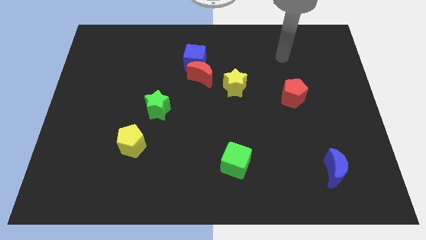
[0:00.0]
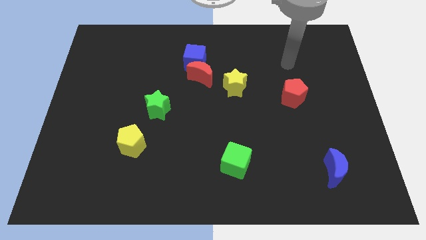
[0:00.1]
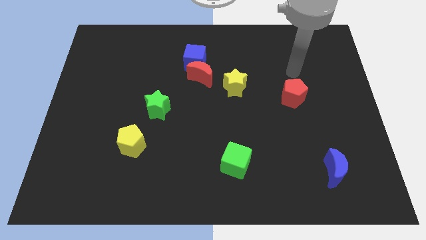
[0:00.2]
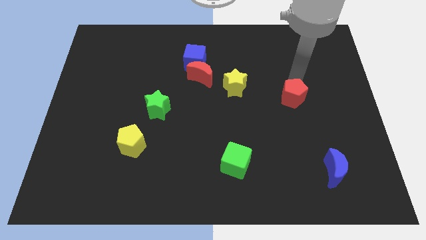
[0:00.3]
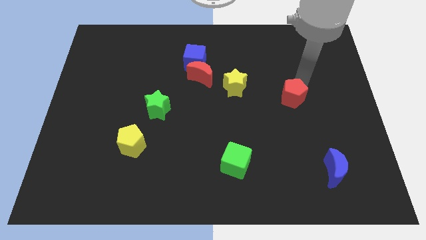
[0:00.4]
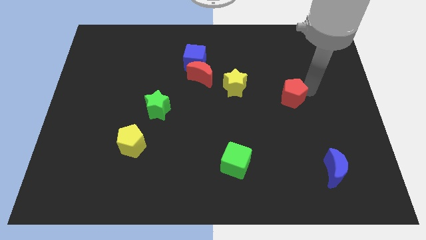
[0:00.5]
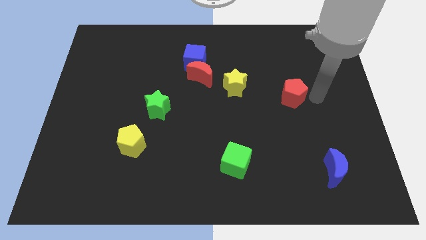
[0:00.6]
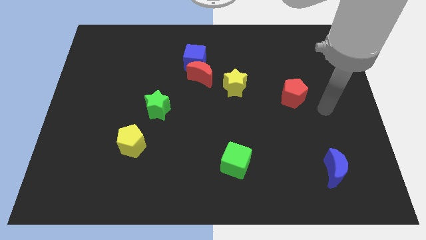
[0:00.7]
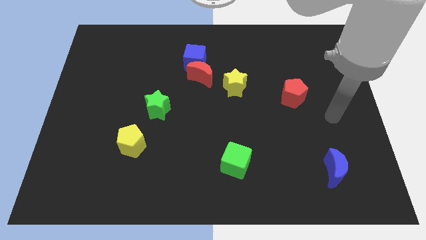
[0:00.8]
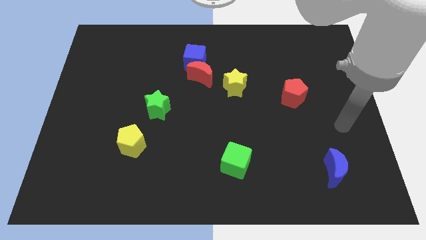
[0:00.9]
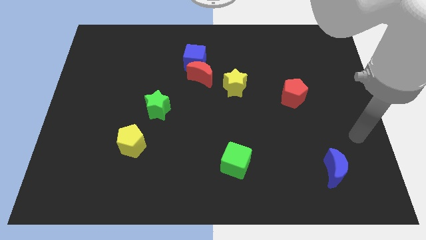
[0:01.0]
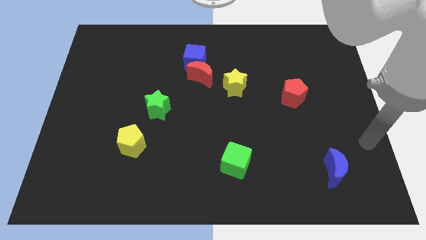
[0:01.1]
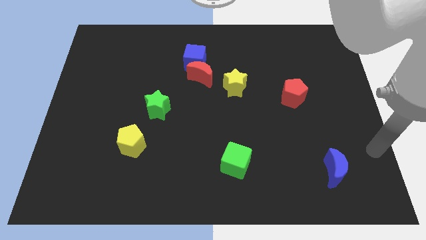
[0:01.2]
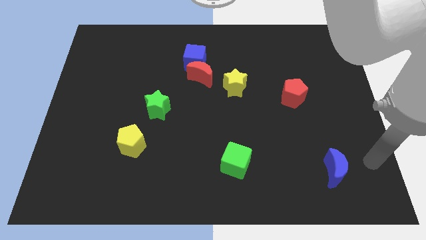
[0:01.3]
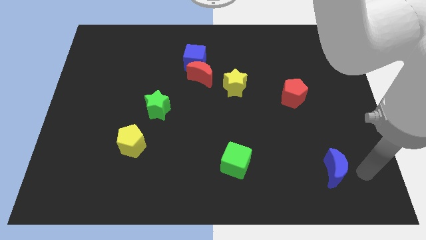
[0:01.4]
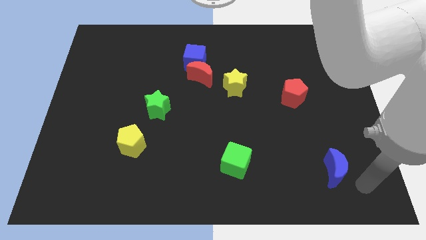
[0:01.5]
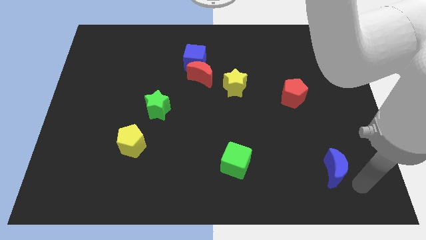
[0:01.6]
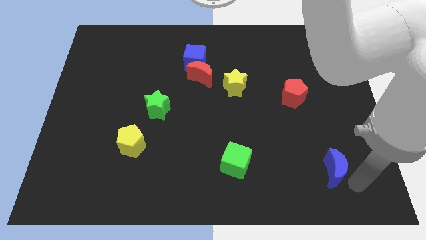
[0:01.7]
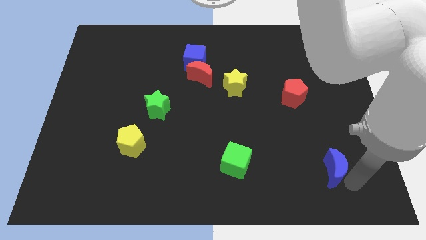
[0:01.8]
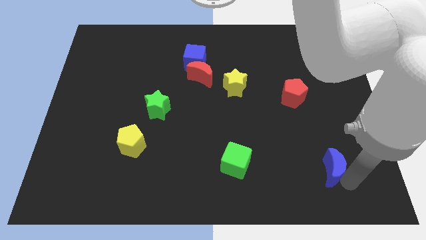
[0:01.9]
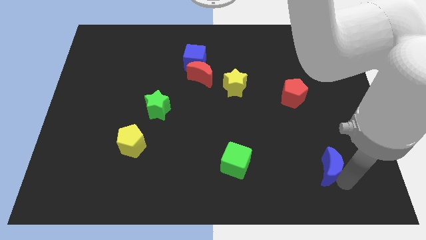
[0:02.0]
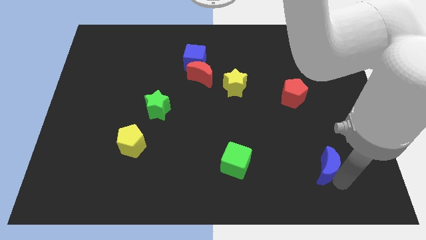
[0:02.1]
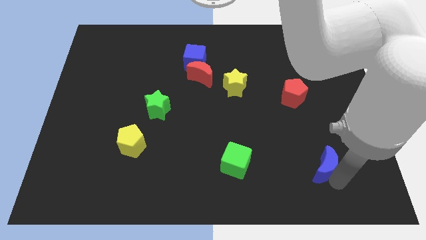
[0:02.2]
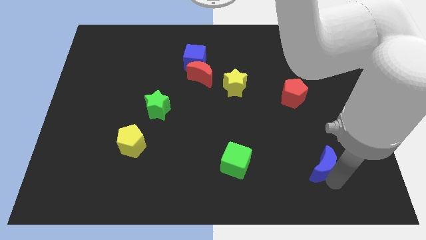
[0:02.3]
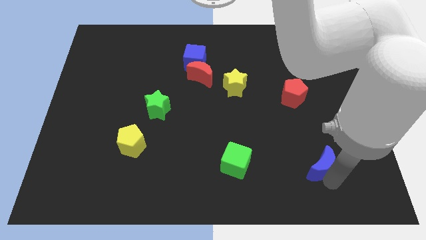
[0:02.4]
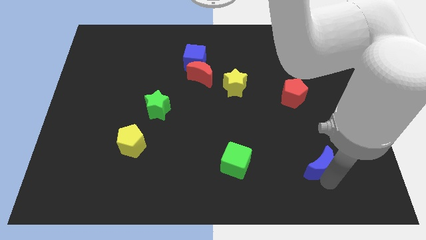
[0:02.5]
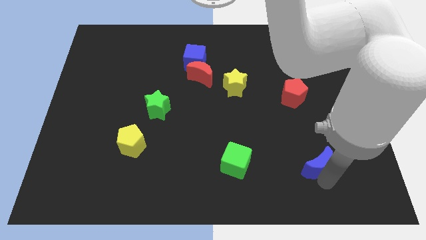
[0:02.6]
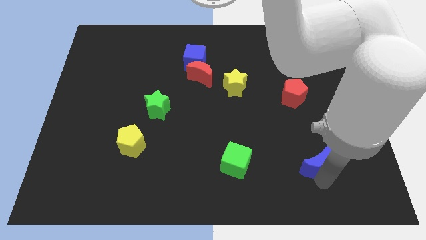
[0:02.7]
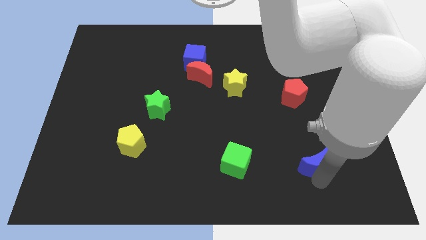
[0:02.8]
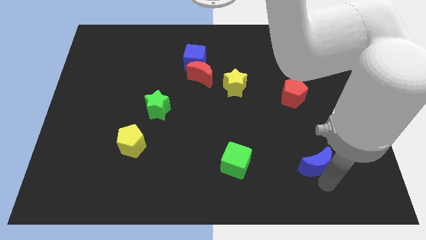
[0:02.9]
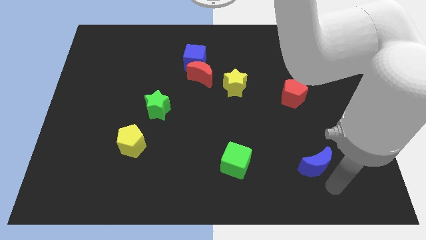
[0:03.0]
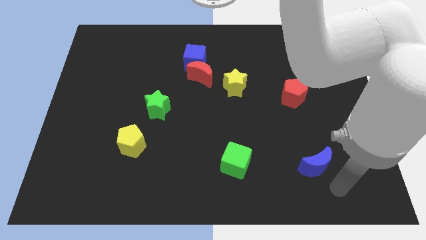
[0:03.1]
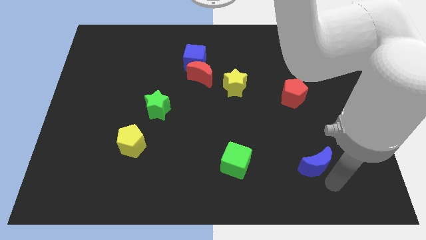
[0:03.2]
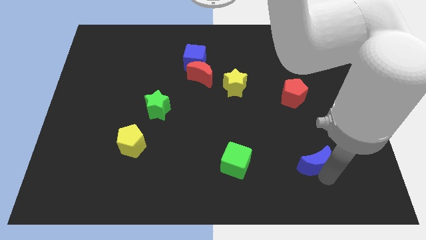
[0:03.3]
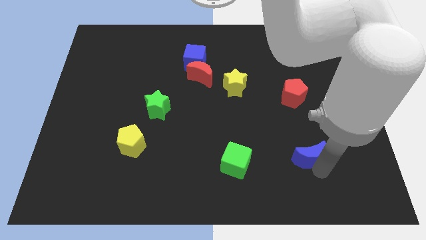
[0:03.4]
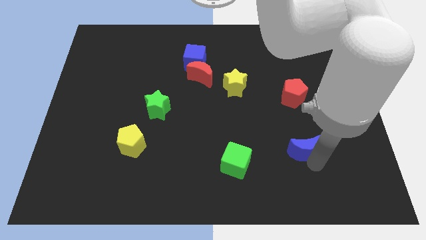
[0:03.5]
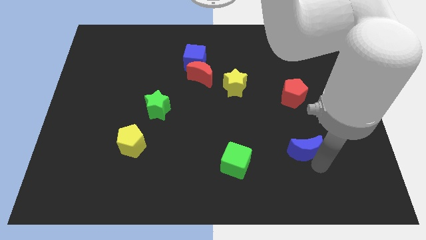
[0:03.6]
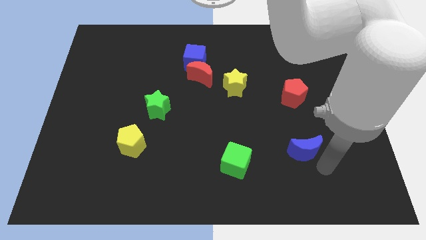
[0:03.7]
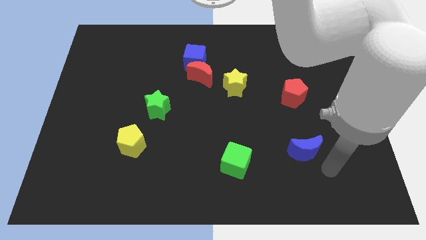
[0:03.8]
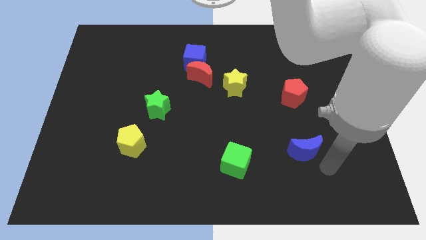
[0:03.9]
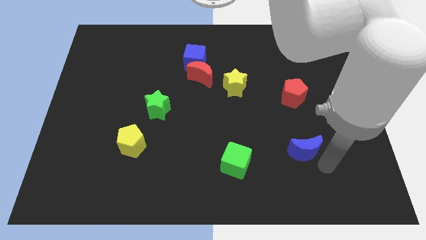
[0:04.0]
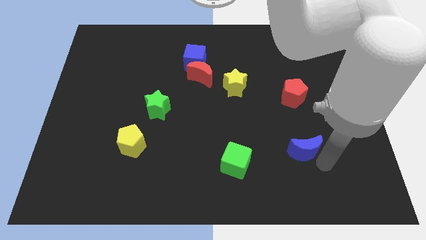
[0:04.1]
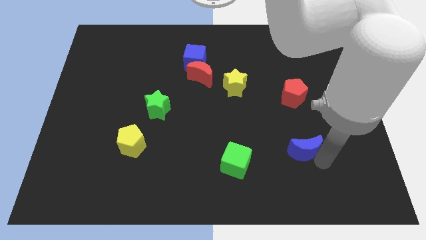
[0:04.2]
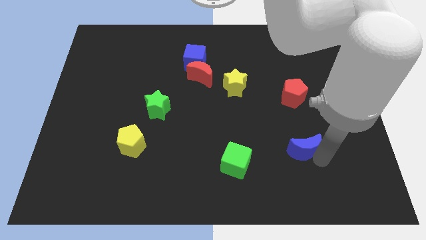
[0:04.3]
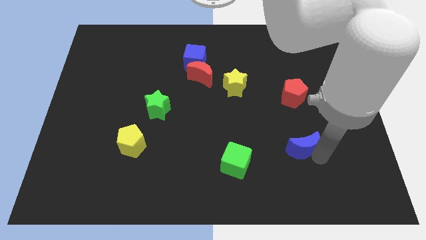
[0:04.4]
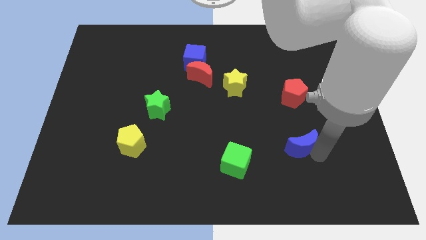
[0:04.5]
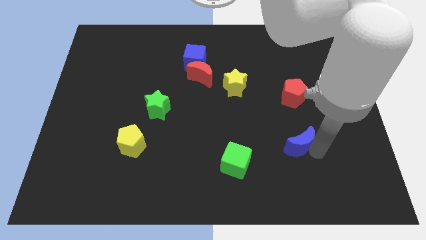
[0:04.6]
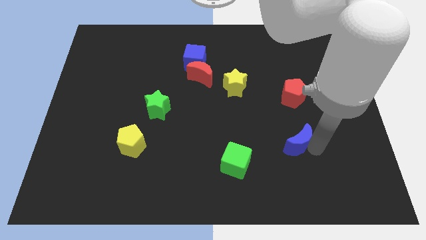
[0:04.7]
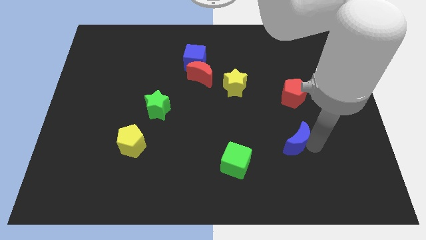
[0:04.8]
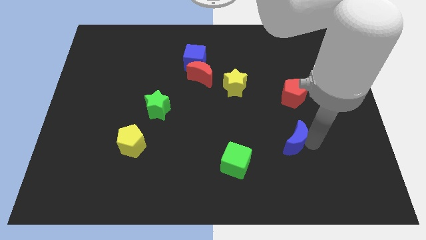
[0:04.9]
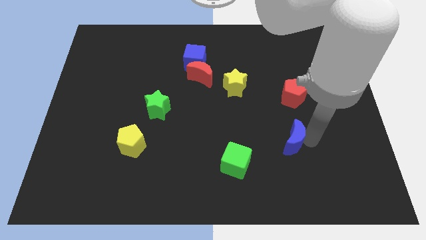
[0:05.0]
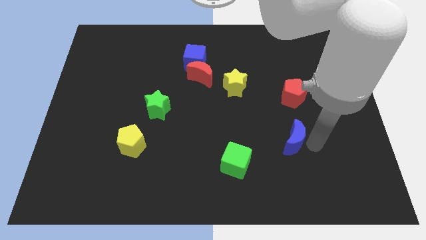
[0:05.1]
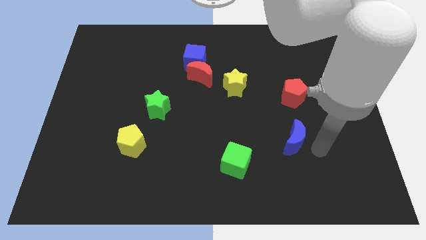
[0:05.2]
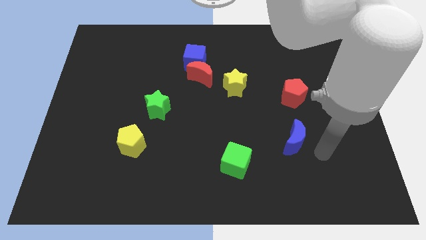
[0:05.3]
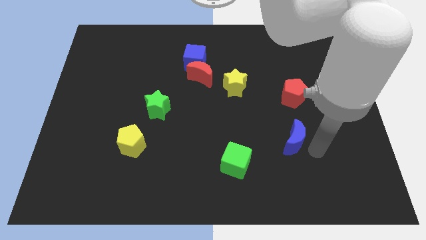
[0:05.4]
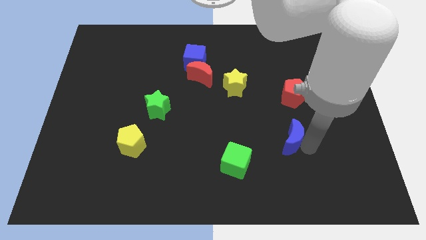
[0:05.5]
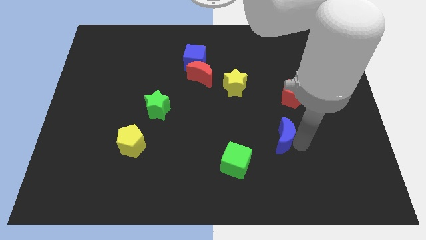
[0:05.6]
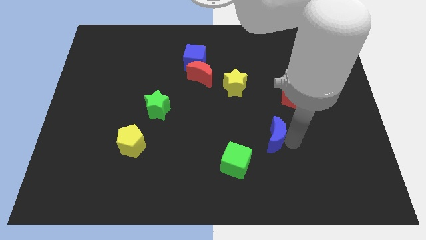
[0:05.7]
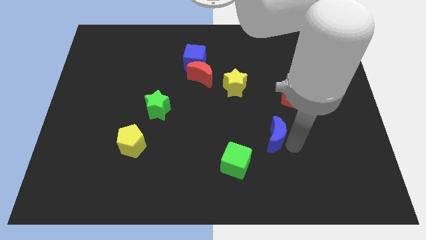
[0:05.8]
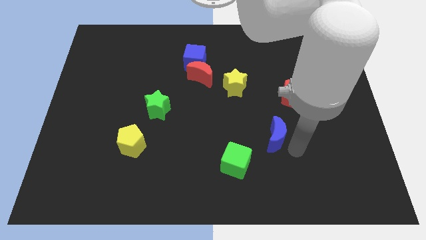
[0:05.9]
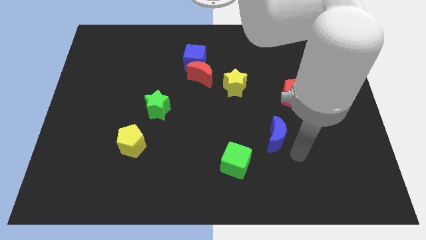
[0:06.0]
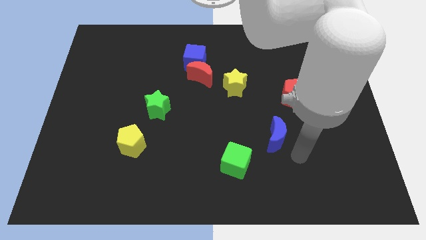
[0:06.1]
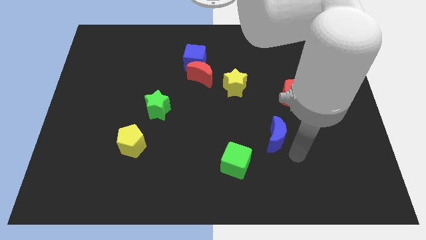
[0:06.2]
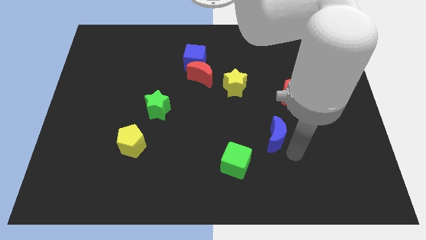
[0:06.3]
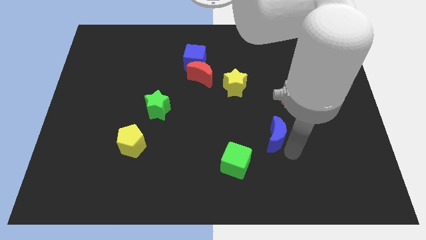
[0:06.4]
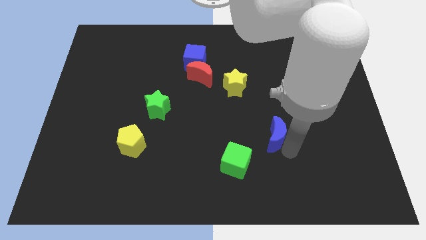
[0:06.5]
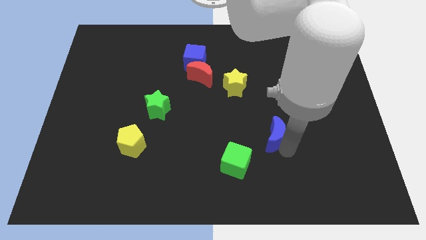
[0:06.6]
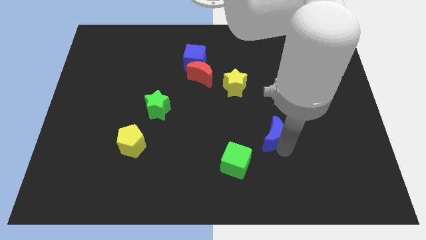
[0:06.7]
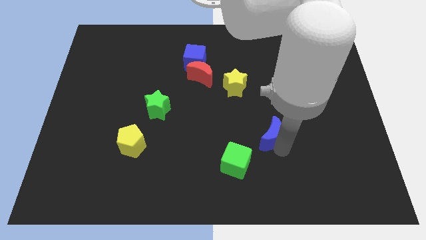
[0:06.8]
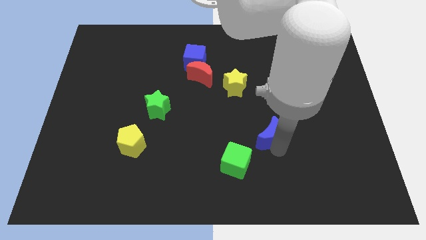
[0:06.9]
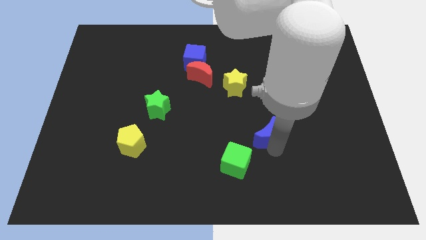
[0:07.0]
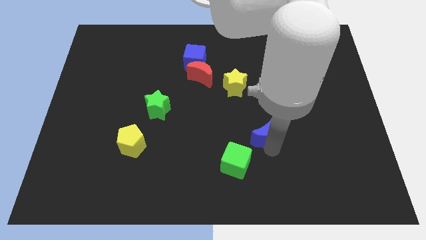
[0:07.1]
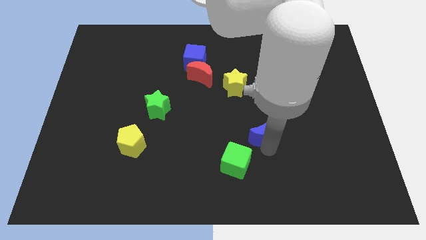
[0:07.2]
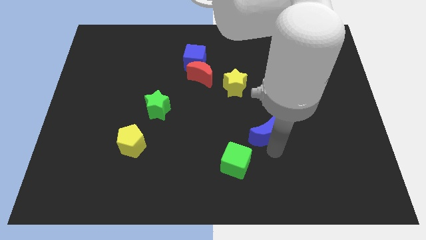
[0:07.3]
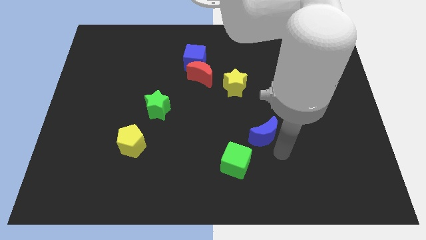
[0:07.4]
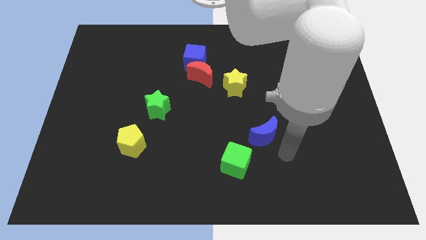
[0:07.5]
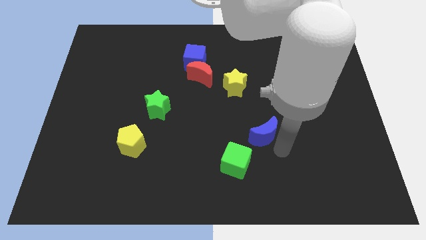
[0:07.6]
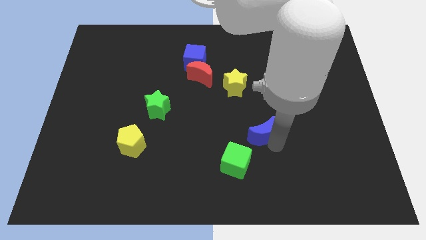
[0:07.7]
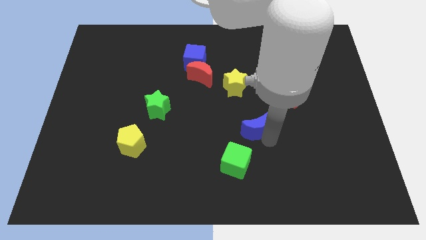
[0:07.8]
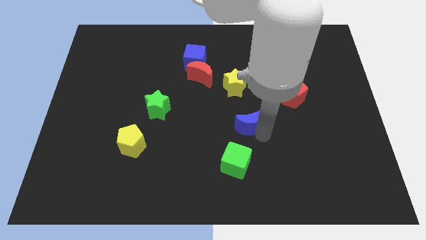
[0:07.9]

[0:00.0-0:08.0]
move the blue moon to the center
